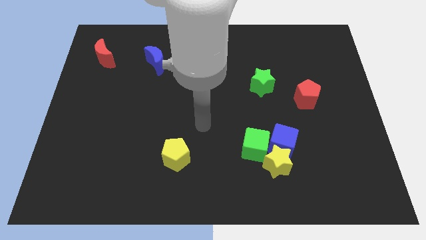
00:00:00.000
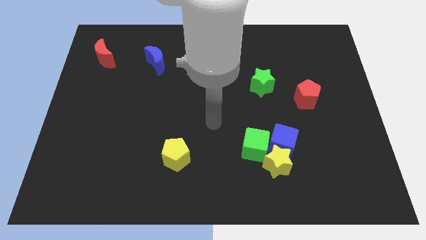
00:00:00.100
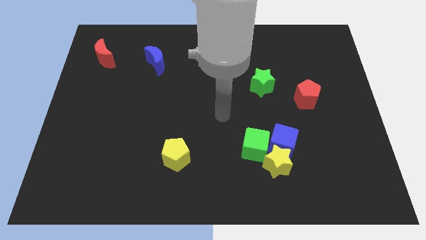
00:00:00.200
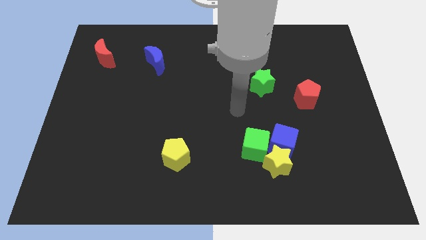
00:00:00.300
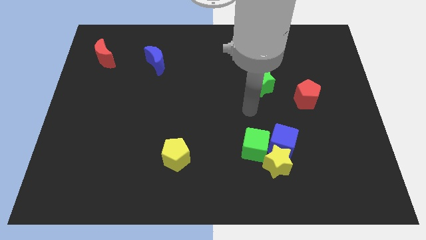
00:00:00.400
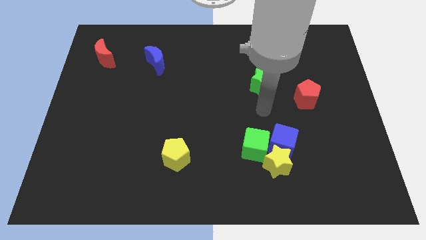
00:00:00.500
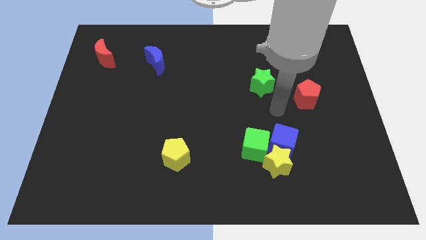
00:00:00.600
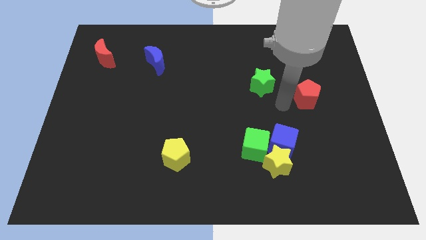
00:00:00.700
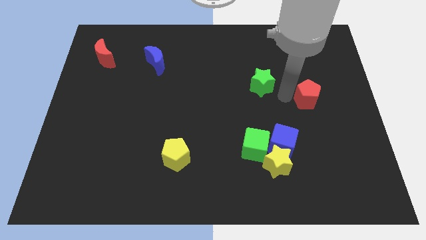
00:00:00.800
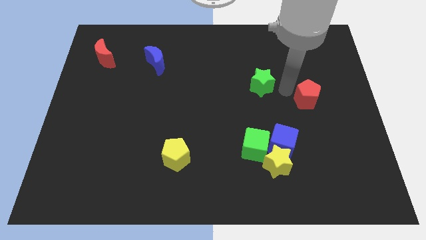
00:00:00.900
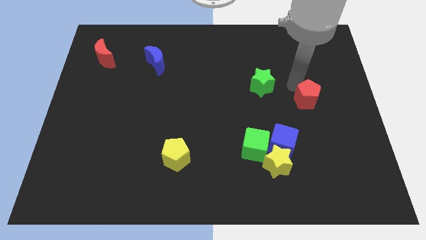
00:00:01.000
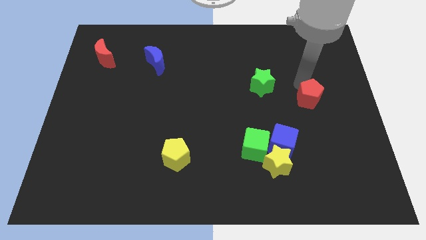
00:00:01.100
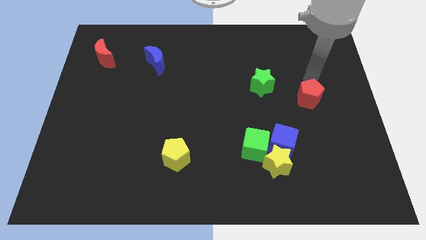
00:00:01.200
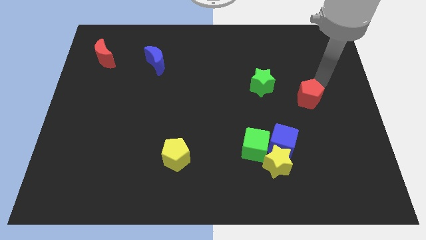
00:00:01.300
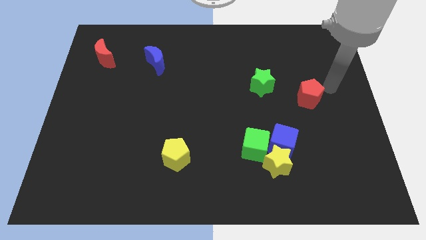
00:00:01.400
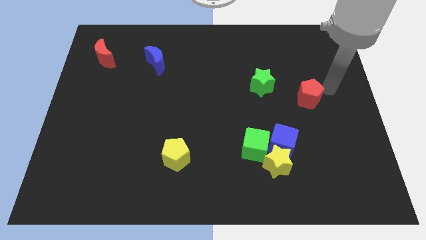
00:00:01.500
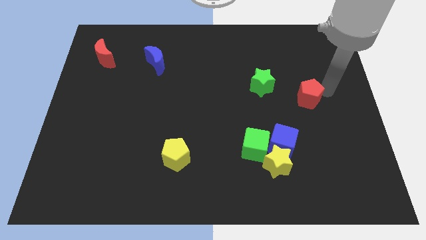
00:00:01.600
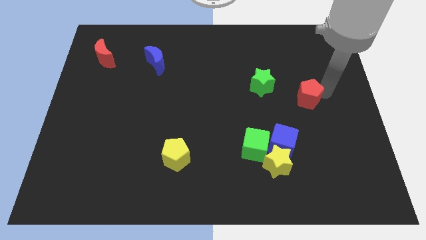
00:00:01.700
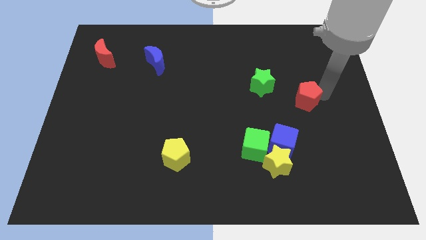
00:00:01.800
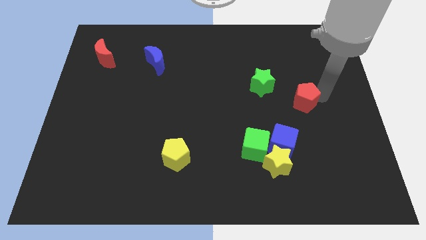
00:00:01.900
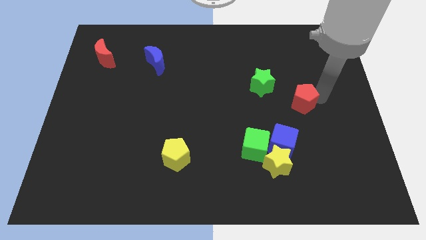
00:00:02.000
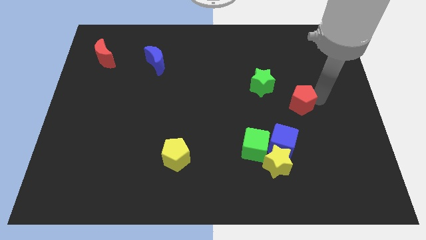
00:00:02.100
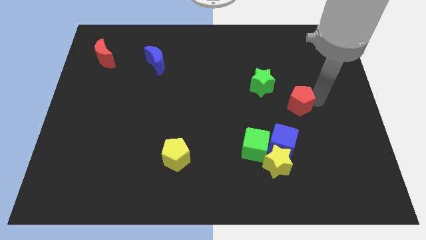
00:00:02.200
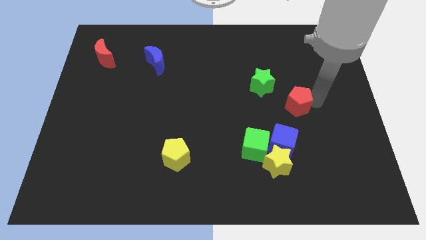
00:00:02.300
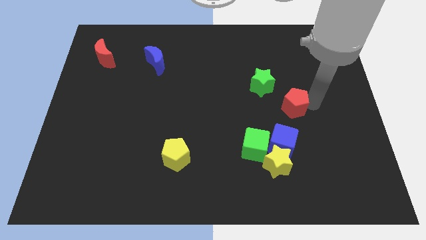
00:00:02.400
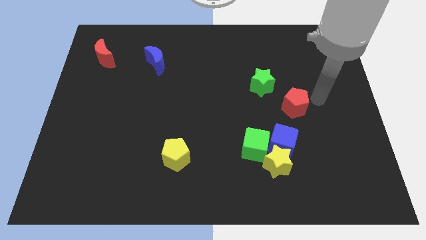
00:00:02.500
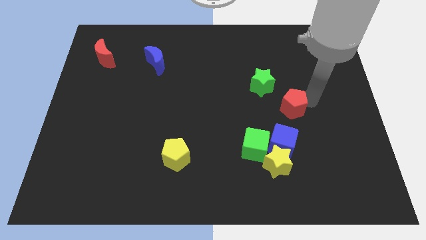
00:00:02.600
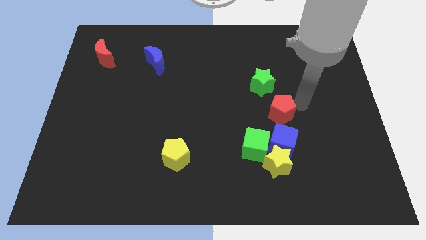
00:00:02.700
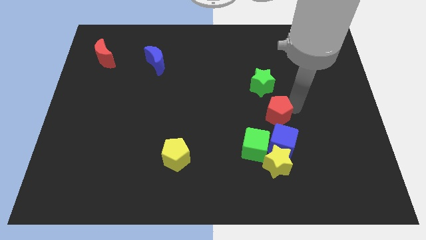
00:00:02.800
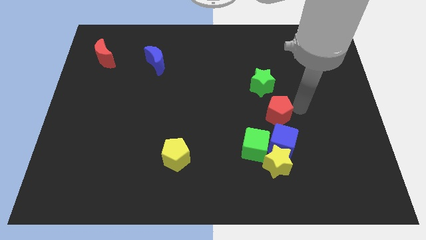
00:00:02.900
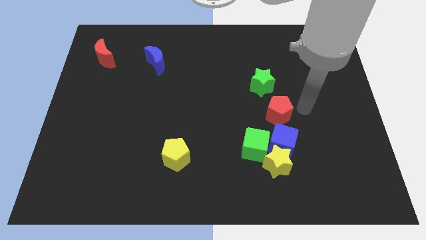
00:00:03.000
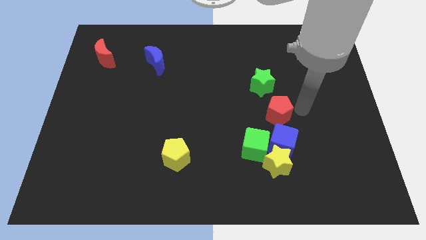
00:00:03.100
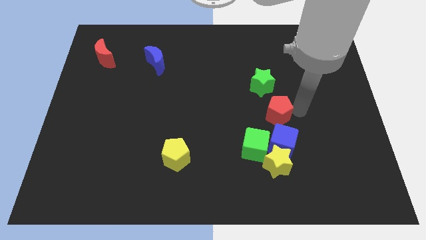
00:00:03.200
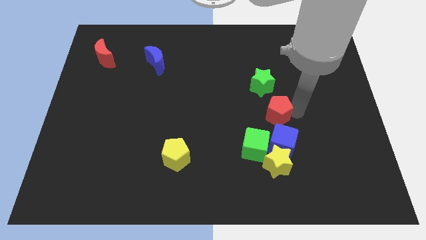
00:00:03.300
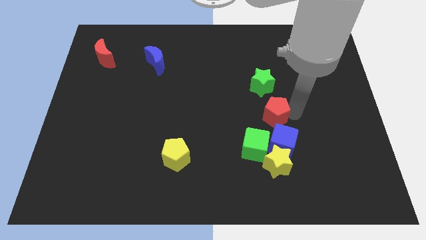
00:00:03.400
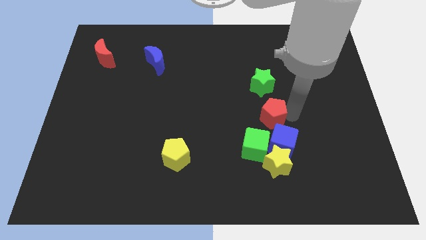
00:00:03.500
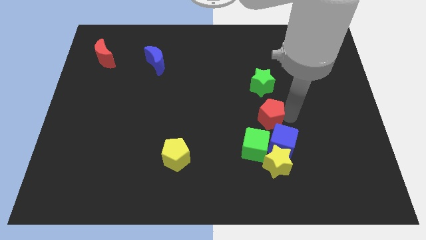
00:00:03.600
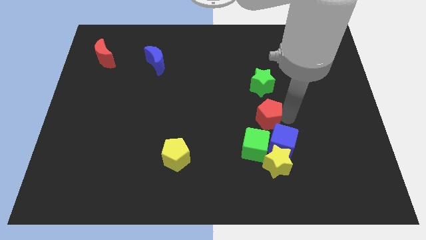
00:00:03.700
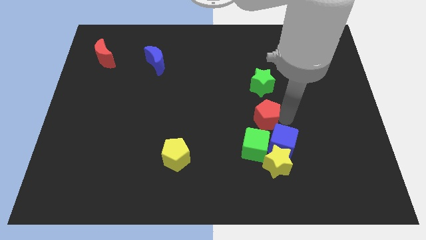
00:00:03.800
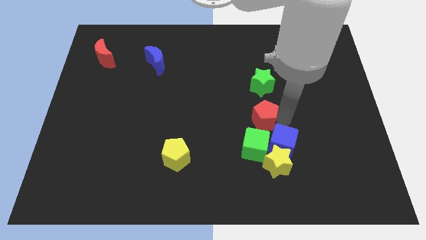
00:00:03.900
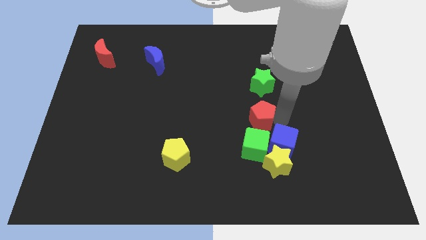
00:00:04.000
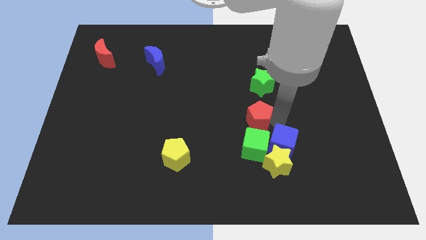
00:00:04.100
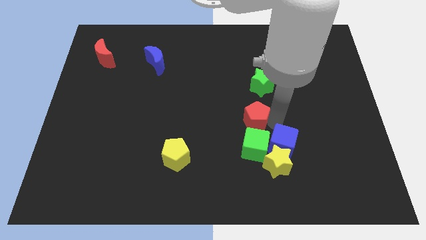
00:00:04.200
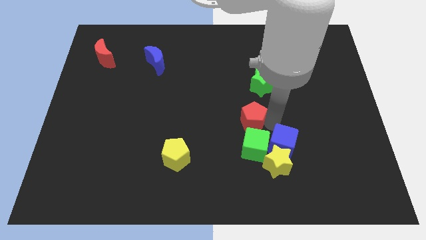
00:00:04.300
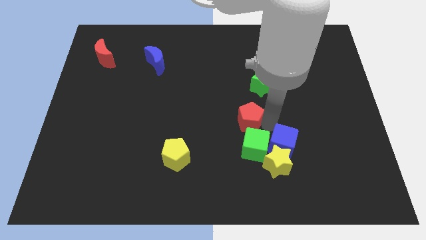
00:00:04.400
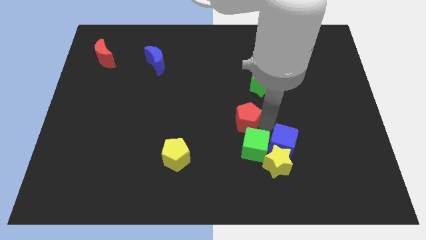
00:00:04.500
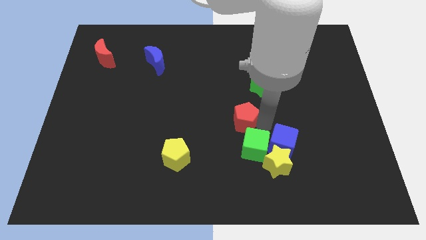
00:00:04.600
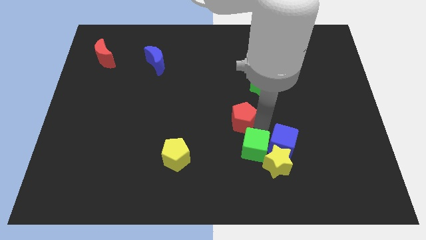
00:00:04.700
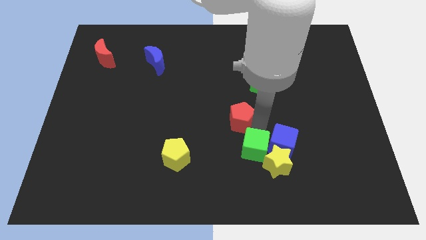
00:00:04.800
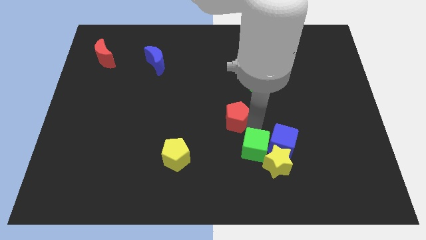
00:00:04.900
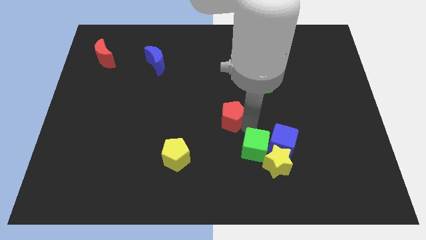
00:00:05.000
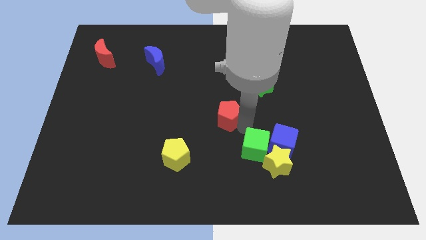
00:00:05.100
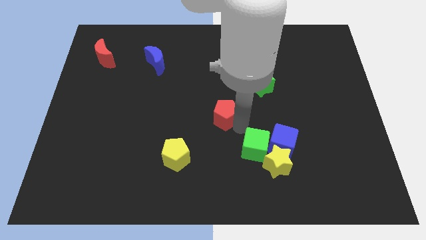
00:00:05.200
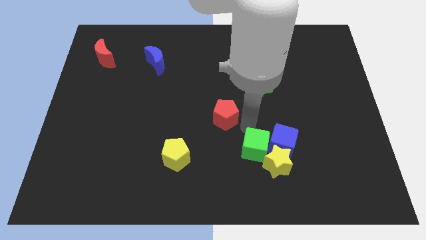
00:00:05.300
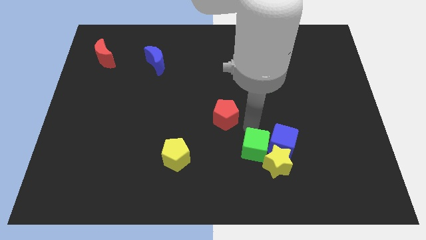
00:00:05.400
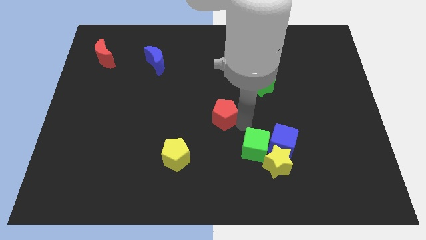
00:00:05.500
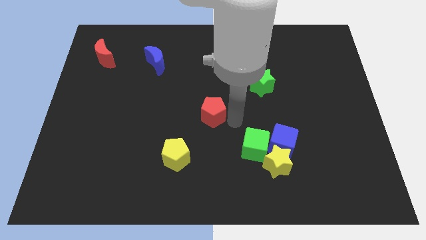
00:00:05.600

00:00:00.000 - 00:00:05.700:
slide the red pentagon to the left

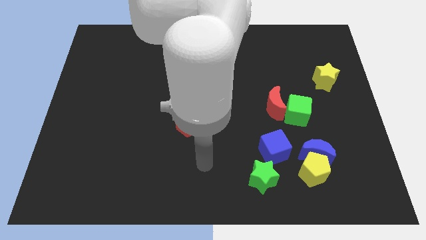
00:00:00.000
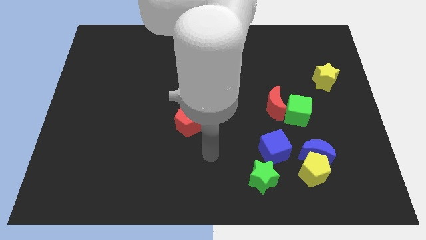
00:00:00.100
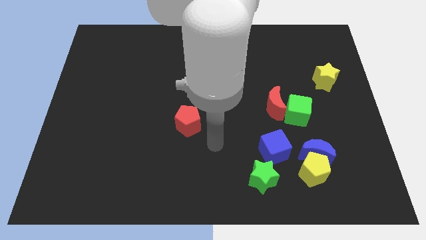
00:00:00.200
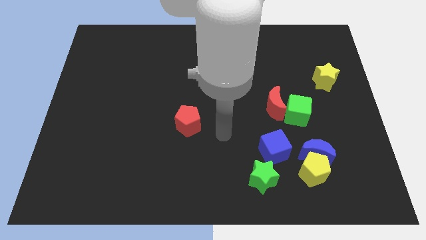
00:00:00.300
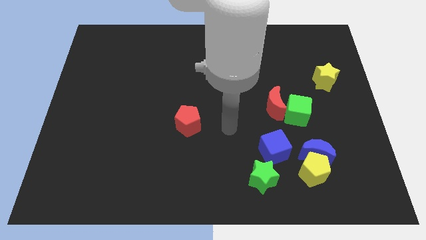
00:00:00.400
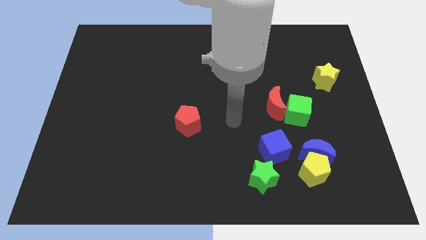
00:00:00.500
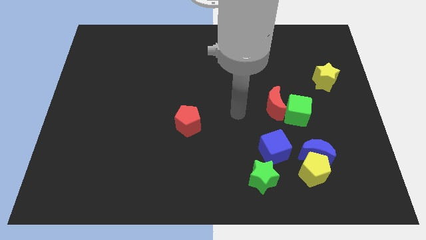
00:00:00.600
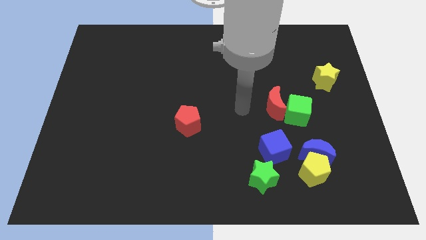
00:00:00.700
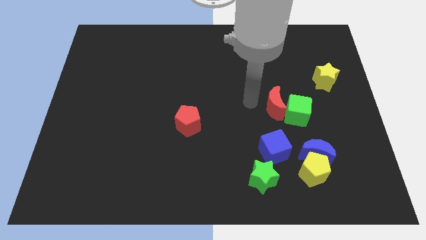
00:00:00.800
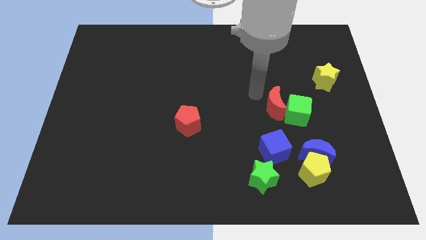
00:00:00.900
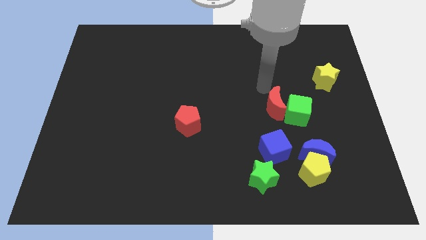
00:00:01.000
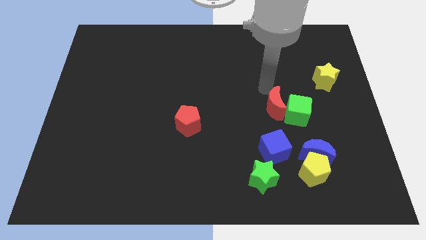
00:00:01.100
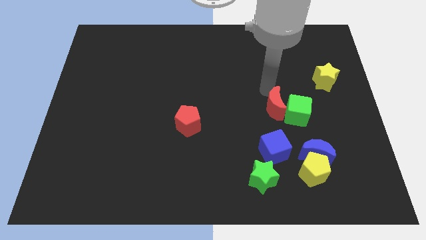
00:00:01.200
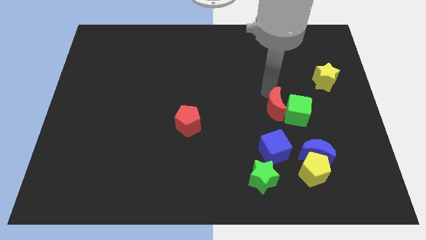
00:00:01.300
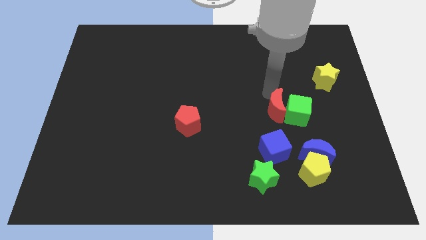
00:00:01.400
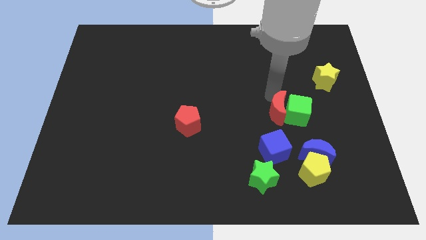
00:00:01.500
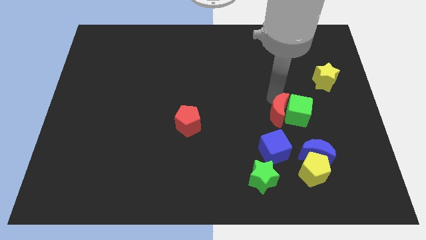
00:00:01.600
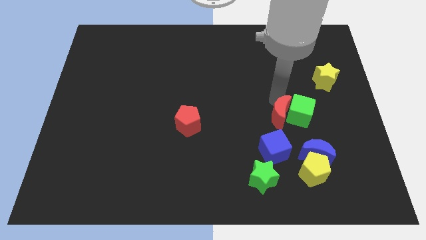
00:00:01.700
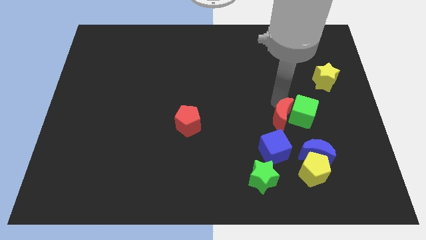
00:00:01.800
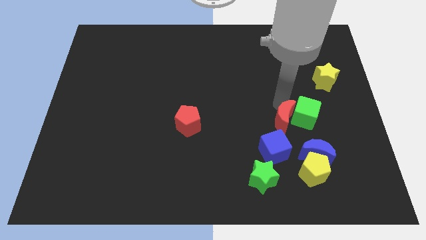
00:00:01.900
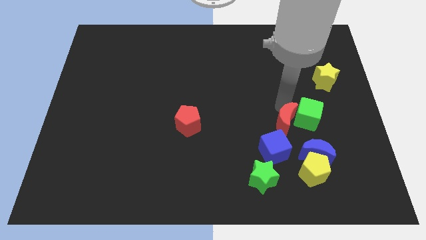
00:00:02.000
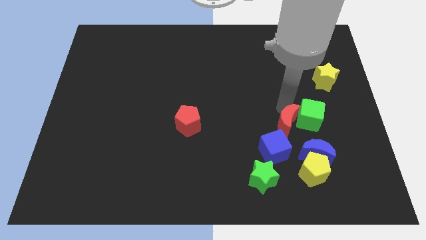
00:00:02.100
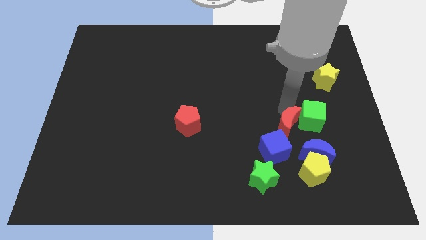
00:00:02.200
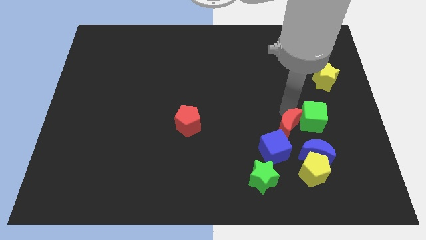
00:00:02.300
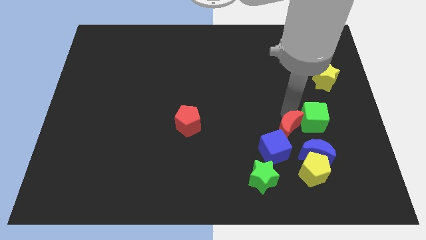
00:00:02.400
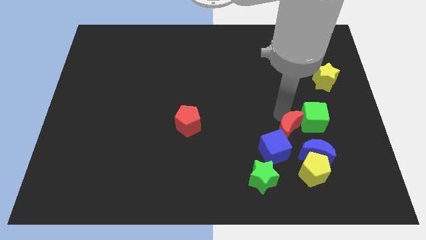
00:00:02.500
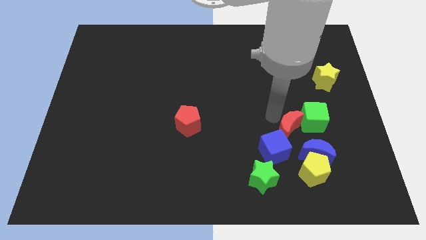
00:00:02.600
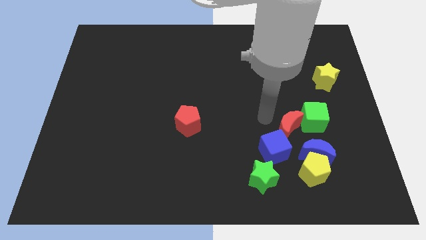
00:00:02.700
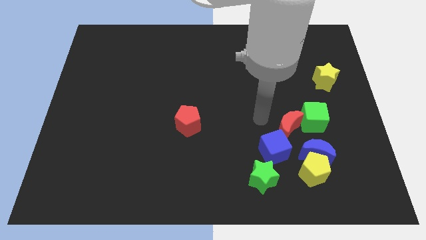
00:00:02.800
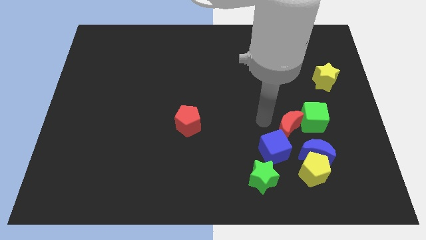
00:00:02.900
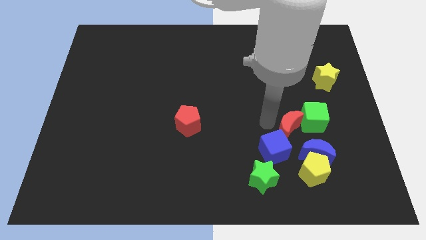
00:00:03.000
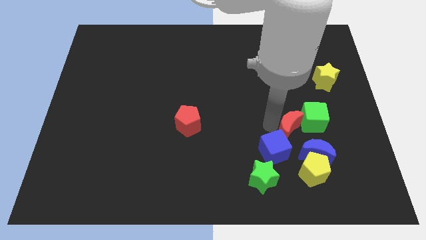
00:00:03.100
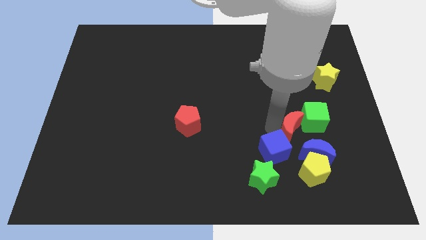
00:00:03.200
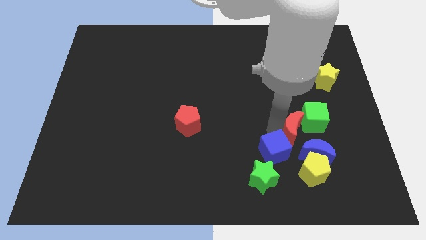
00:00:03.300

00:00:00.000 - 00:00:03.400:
slide the red moon a bit down and then to the right
